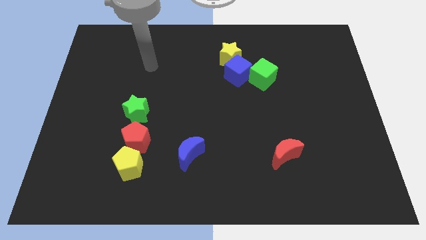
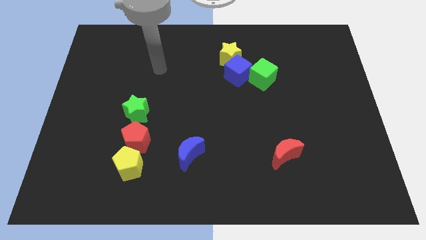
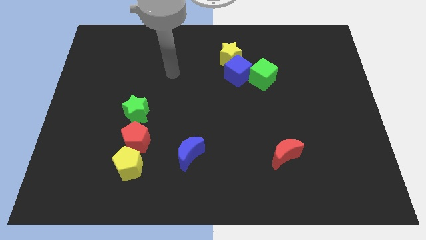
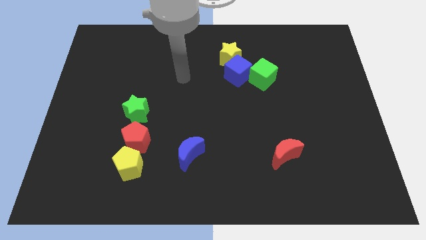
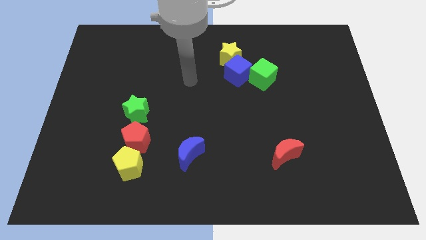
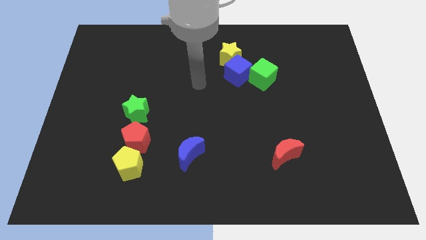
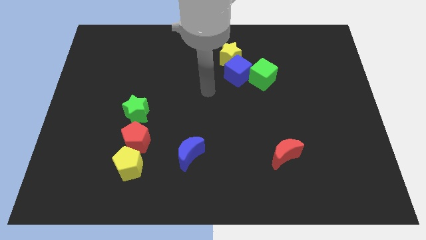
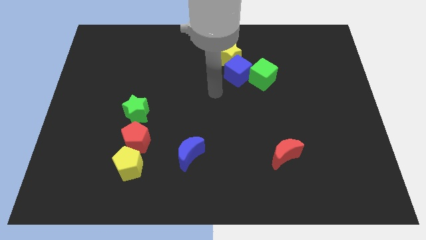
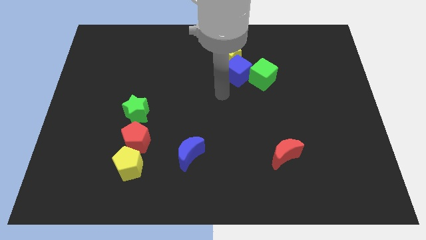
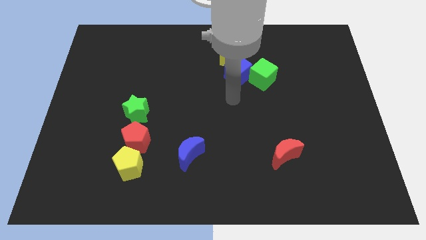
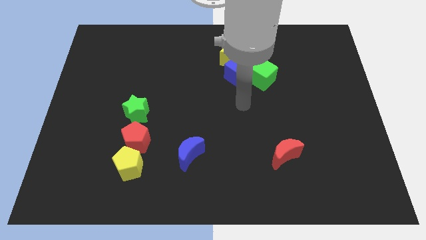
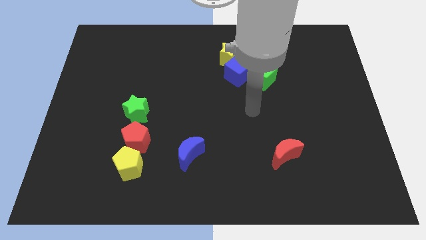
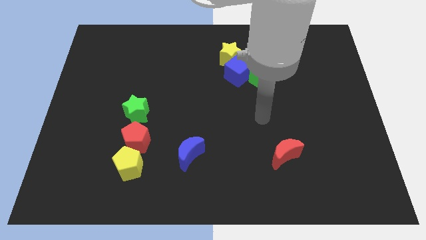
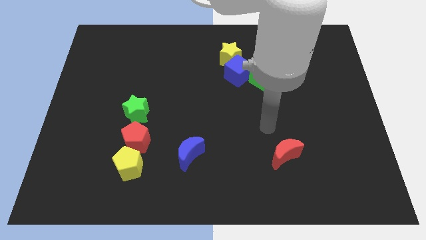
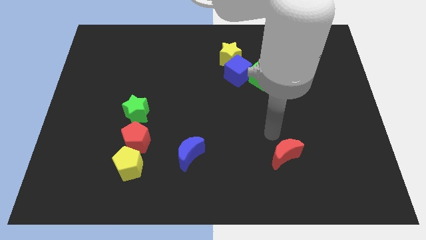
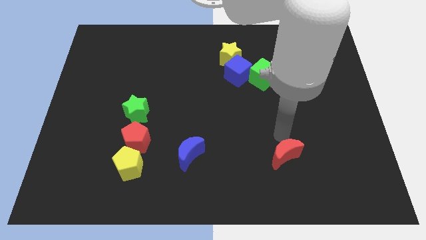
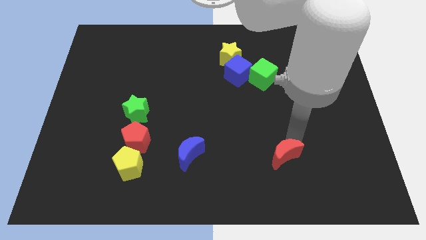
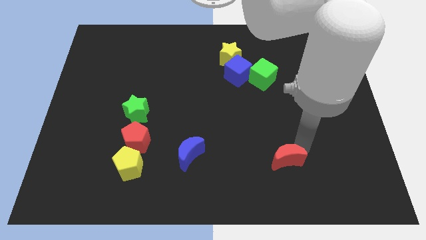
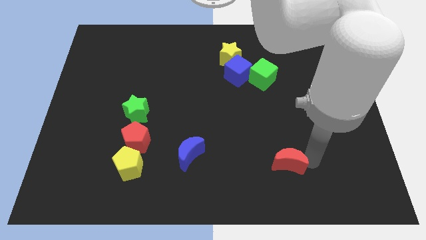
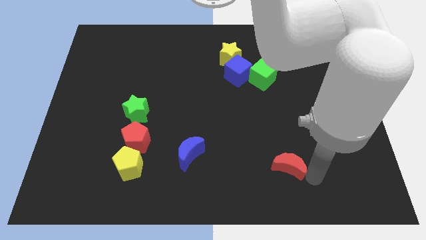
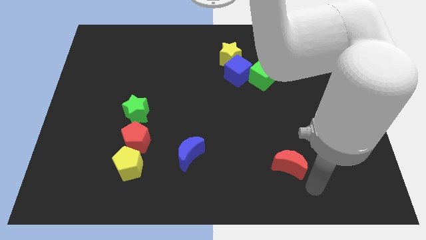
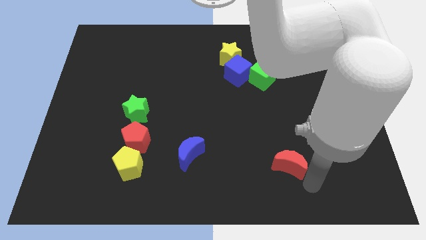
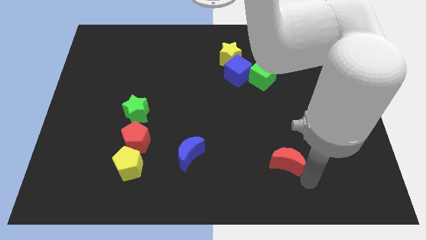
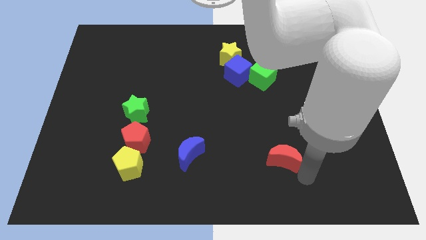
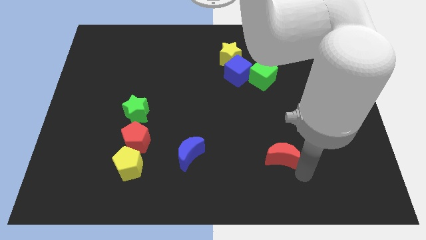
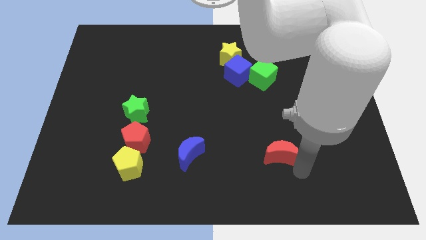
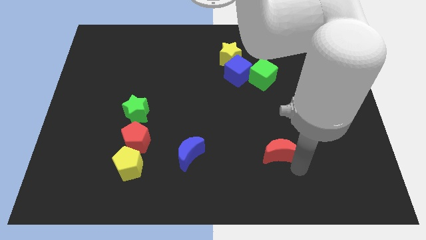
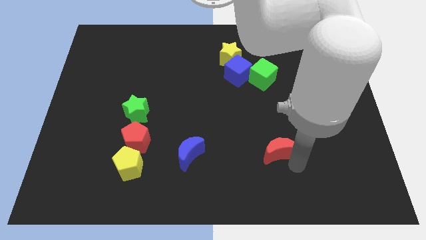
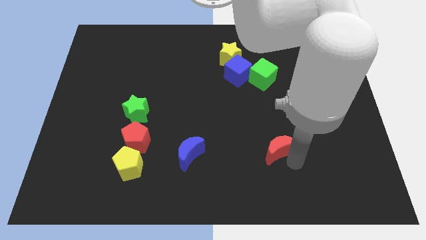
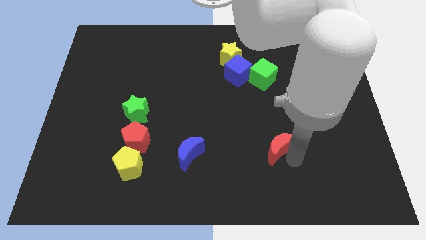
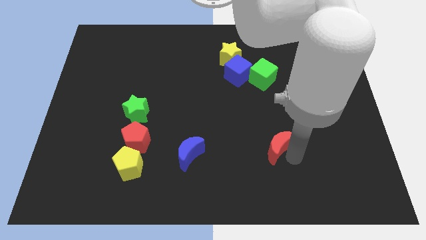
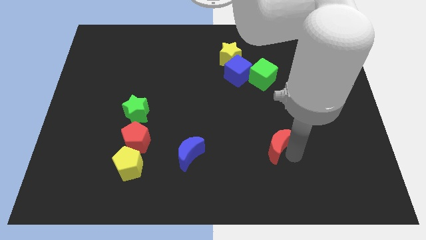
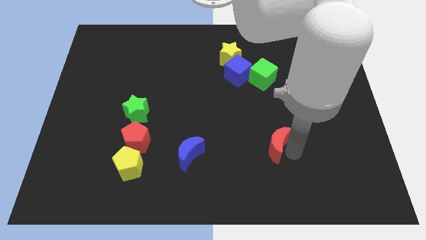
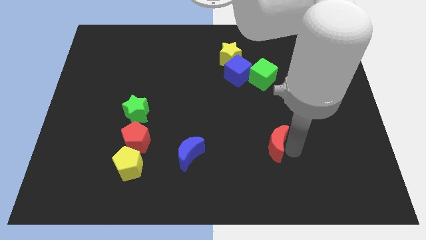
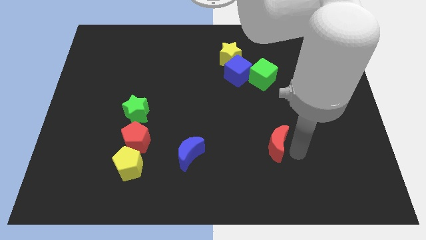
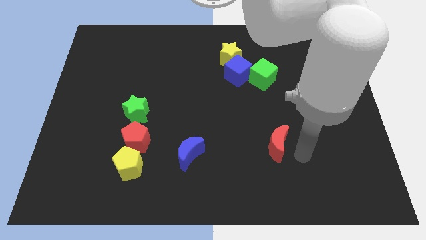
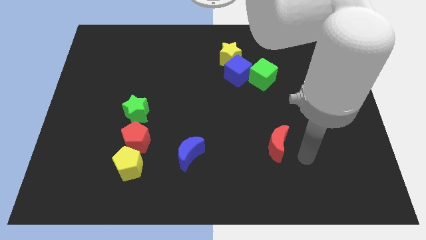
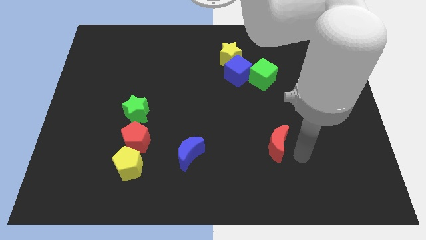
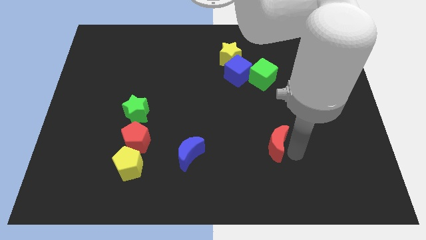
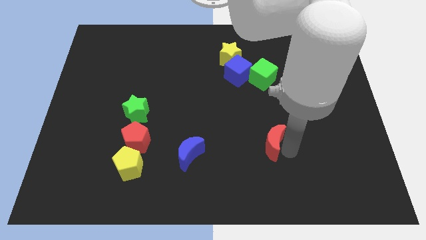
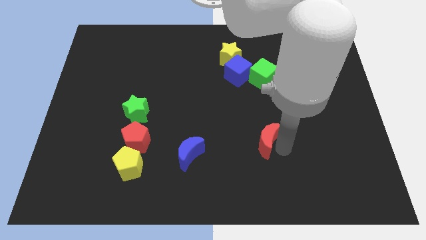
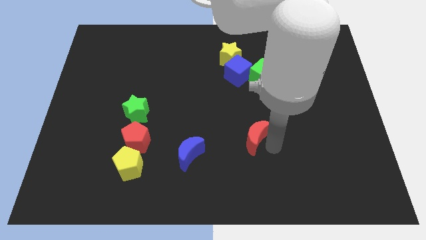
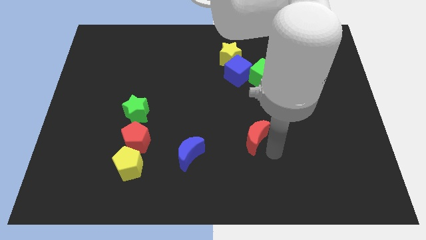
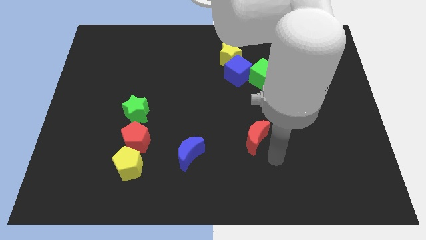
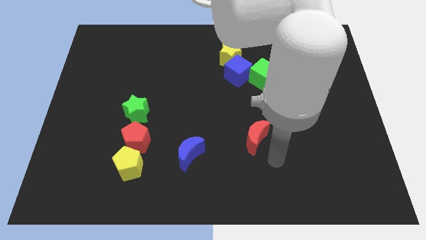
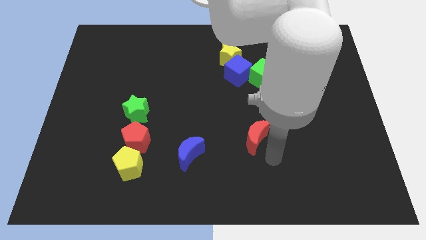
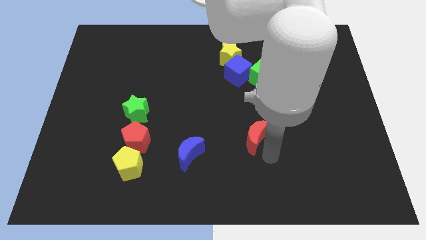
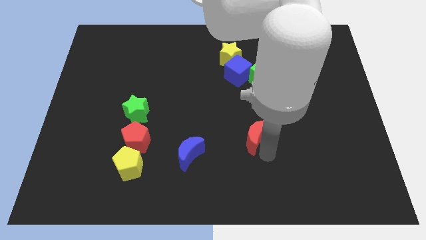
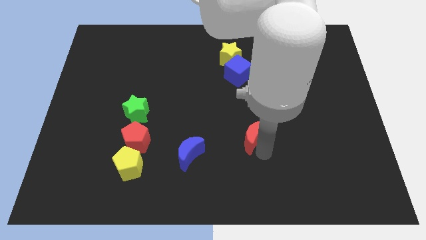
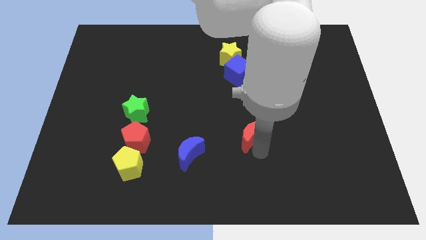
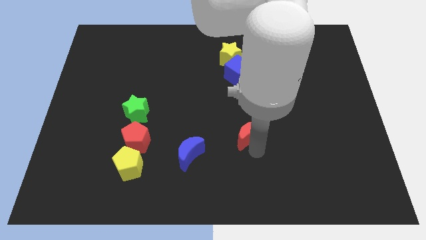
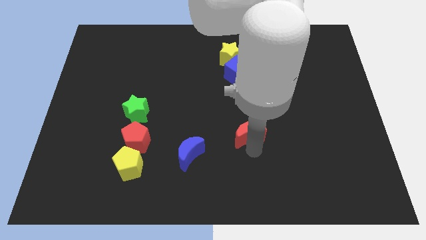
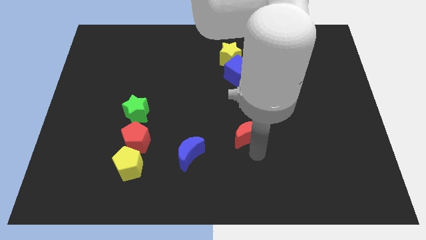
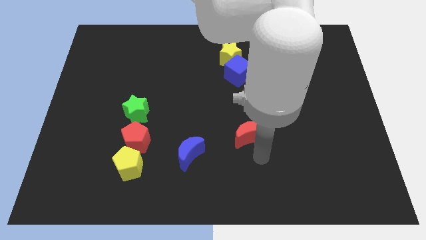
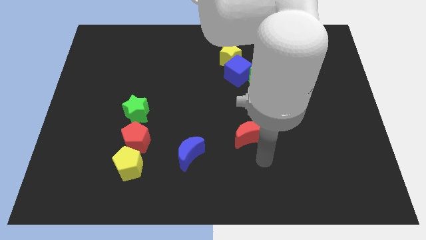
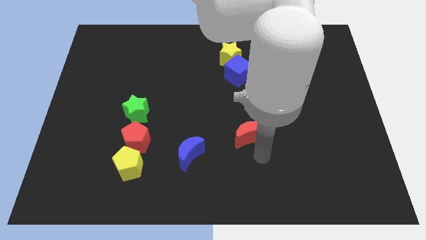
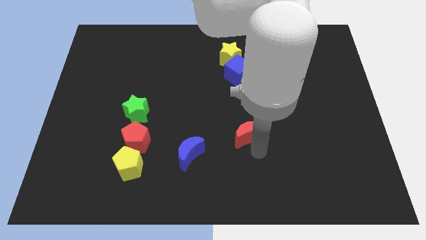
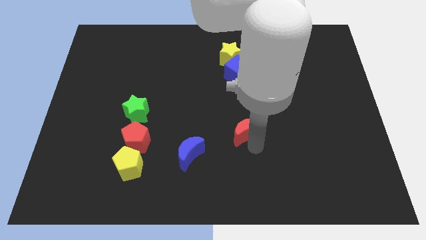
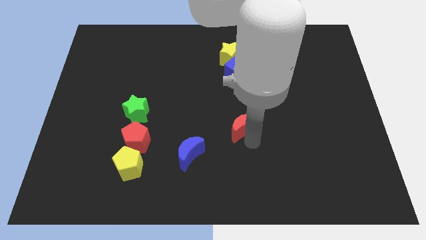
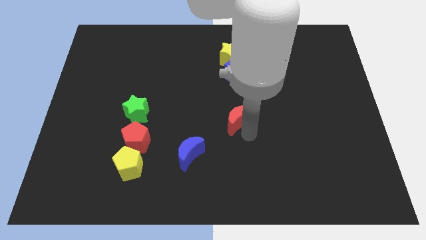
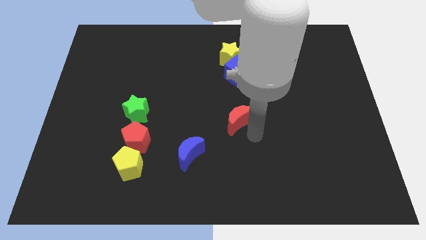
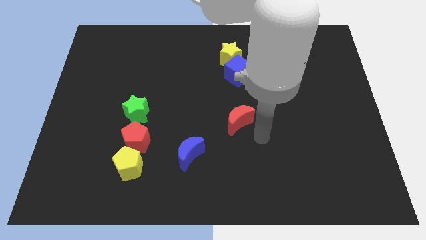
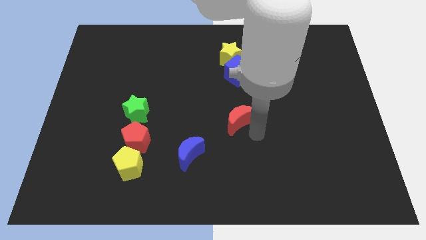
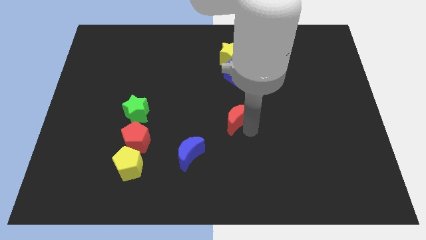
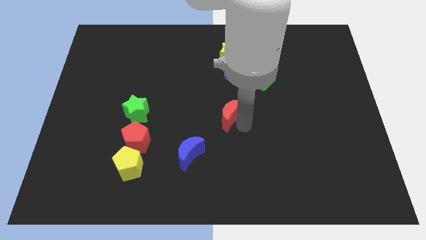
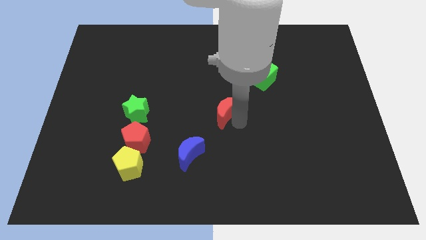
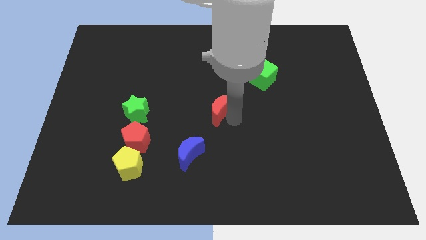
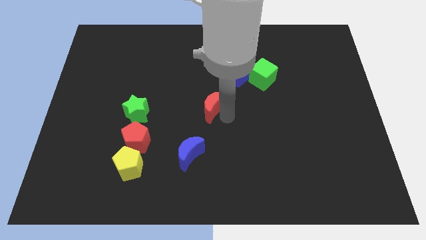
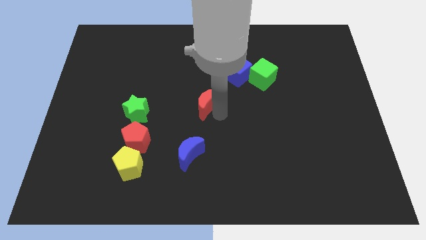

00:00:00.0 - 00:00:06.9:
slide the red moon diagonally upwards and to the left

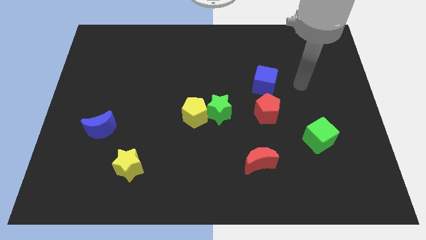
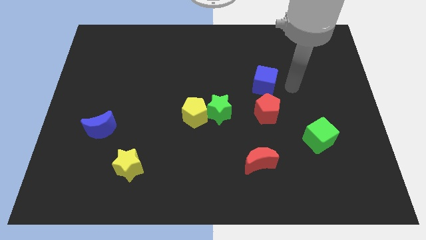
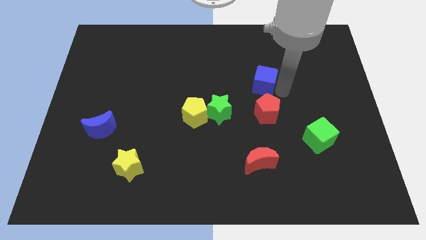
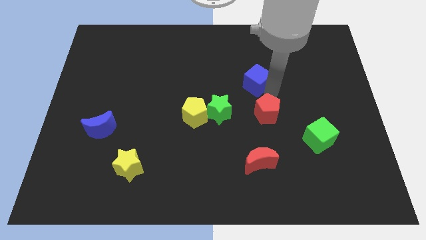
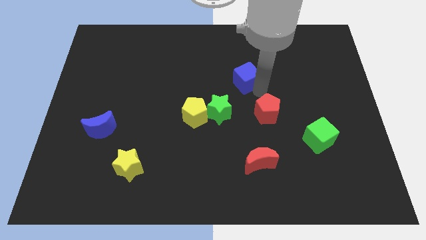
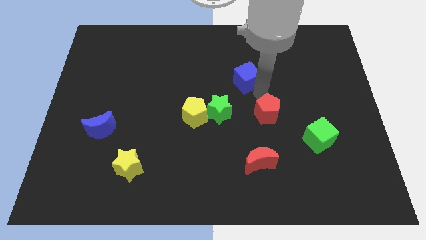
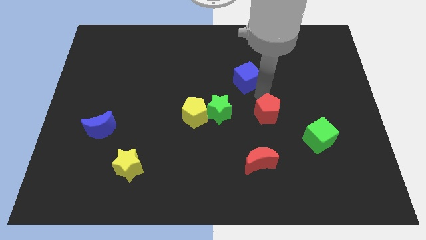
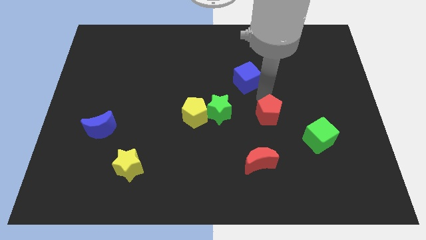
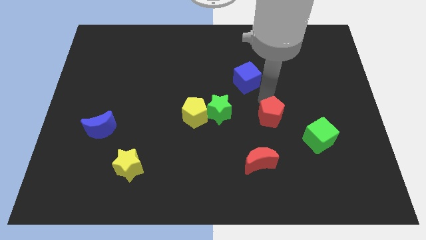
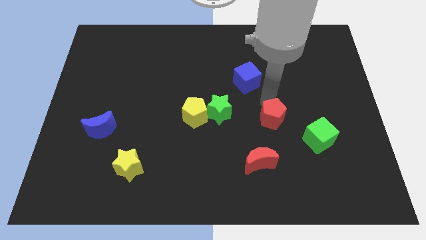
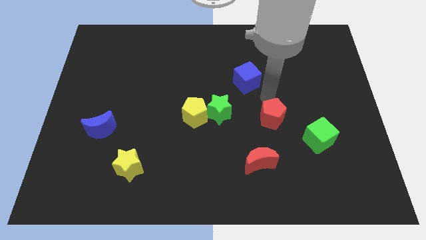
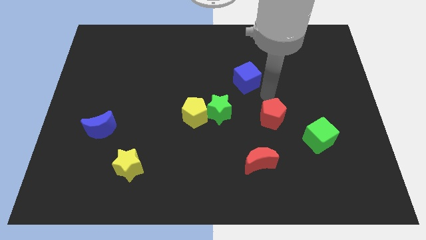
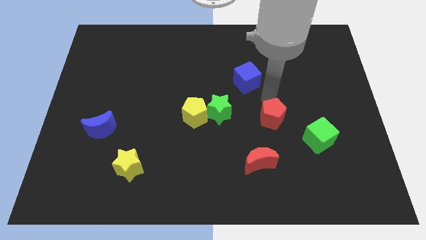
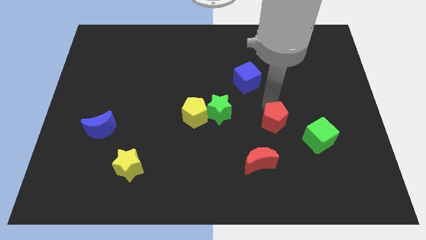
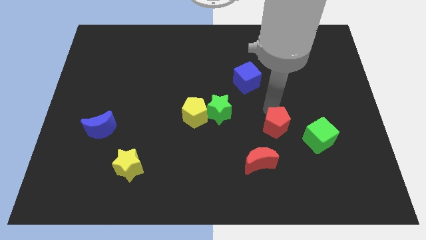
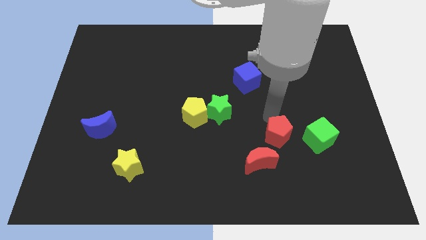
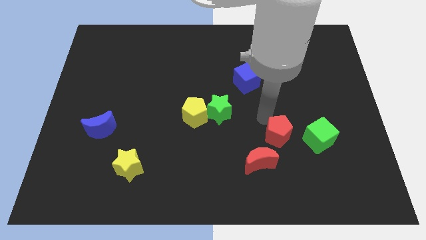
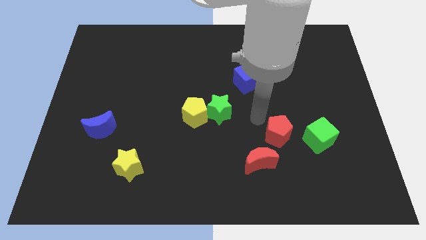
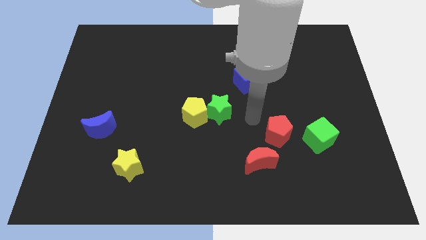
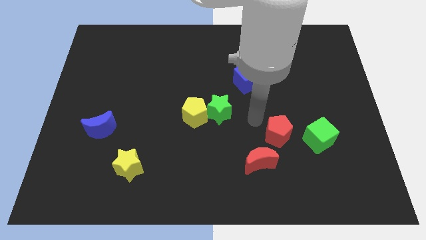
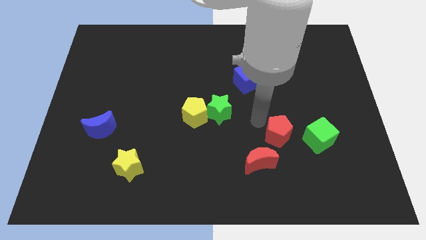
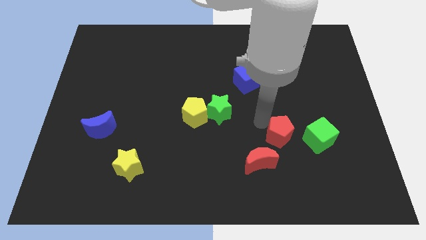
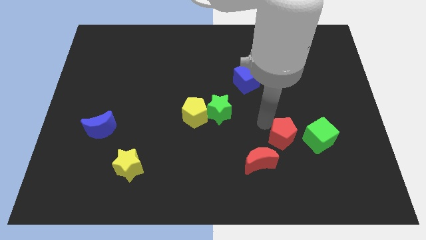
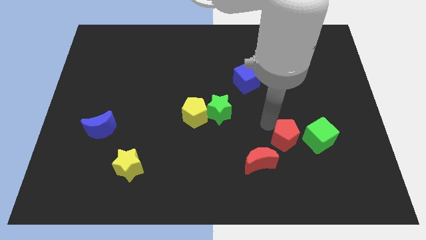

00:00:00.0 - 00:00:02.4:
slightly move the red pentagon down and then right
